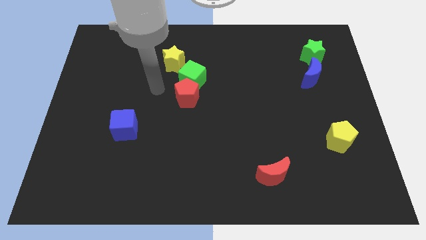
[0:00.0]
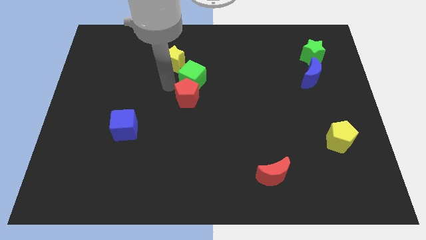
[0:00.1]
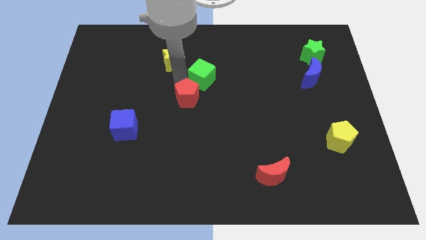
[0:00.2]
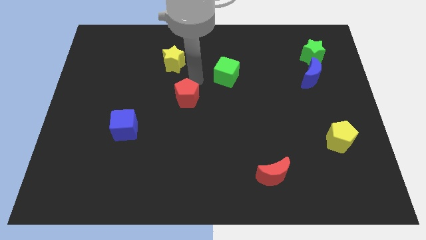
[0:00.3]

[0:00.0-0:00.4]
move the red pentagon away from the green cube

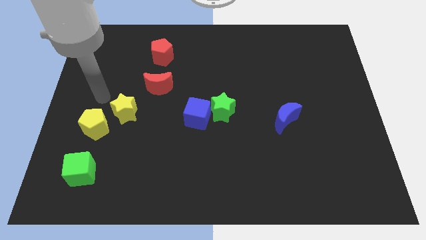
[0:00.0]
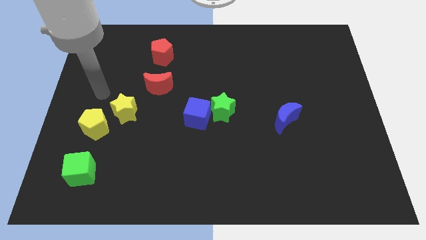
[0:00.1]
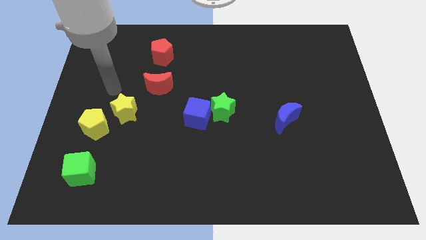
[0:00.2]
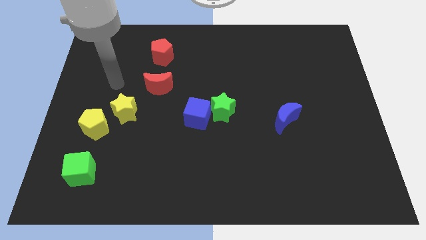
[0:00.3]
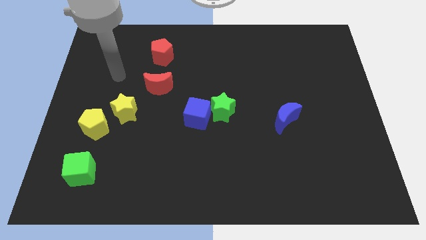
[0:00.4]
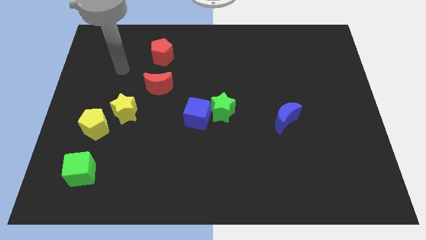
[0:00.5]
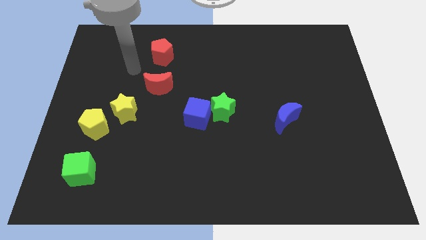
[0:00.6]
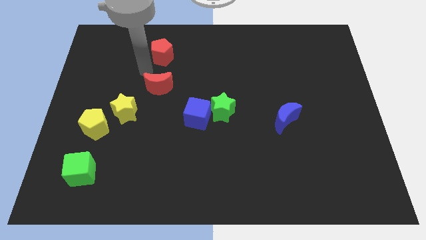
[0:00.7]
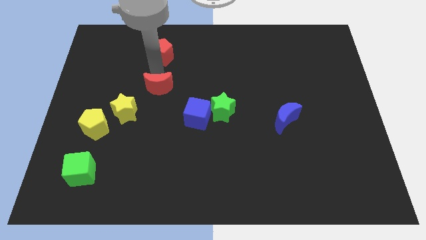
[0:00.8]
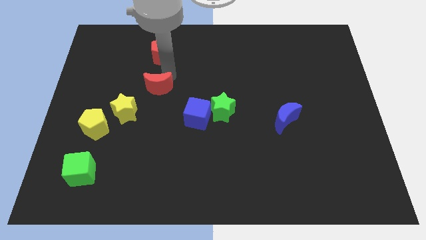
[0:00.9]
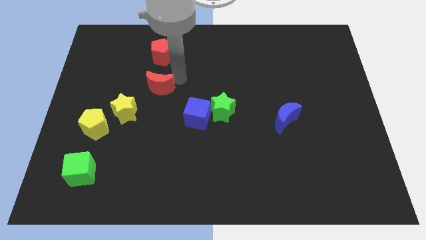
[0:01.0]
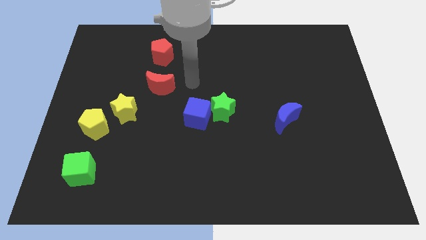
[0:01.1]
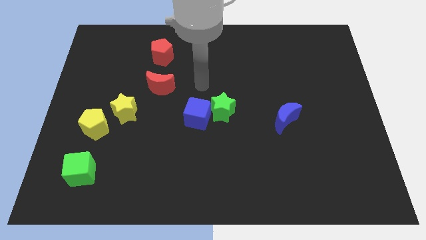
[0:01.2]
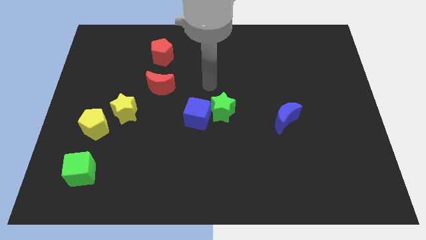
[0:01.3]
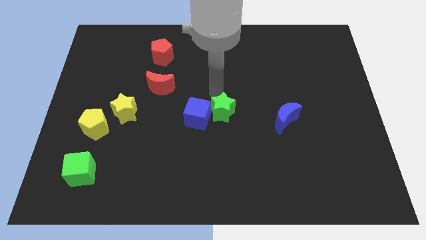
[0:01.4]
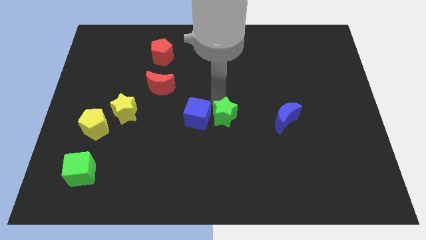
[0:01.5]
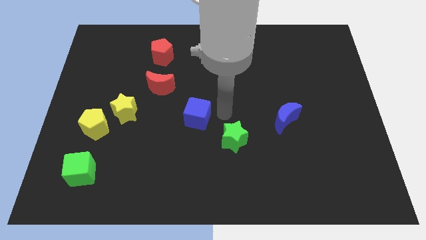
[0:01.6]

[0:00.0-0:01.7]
move the blue cube away from the green star

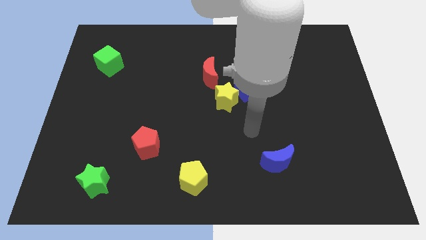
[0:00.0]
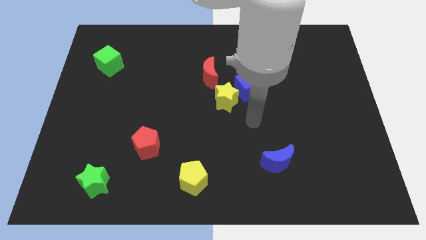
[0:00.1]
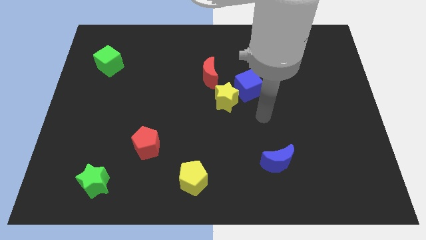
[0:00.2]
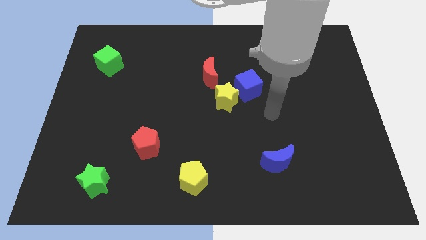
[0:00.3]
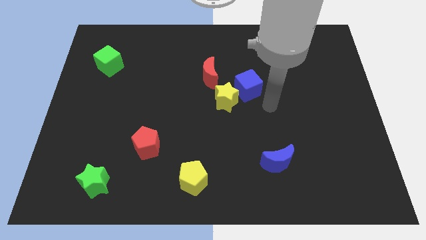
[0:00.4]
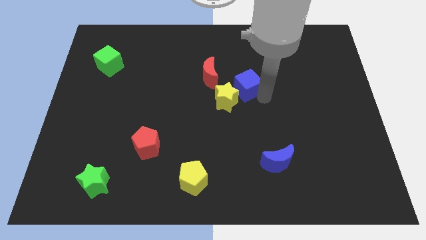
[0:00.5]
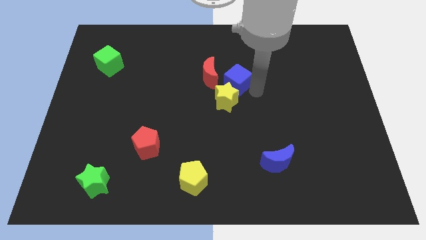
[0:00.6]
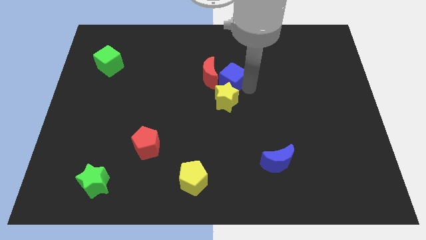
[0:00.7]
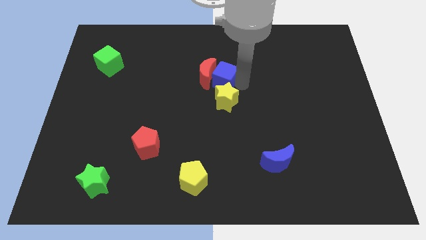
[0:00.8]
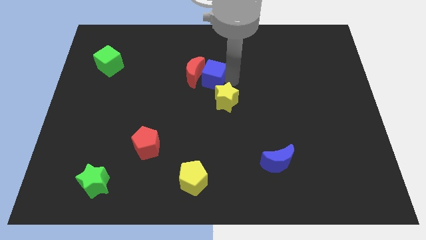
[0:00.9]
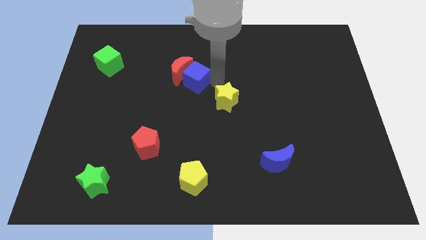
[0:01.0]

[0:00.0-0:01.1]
separate the yellow star from the blue cube and red moon

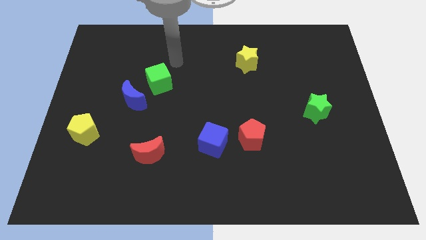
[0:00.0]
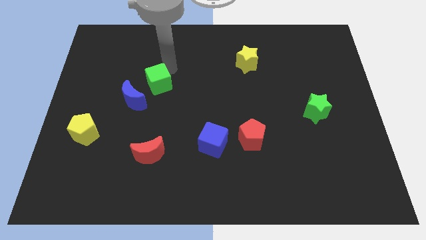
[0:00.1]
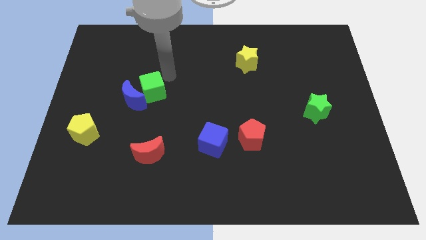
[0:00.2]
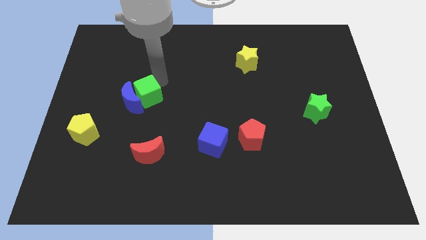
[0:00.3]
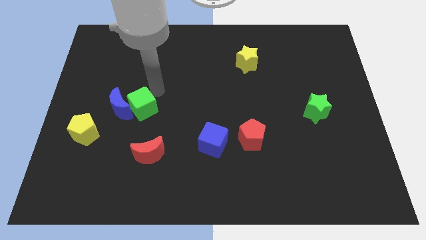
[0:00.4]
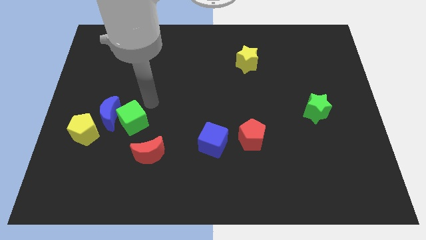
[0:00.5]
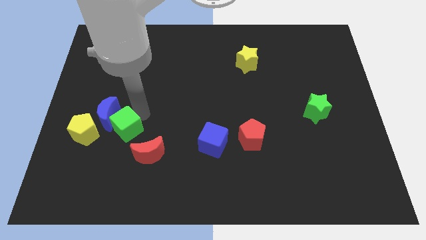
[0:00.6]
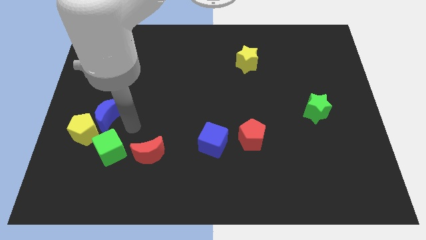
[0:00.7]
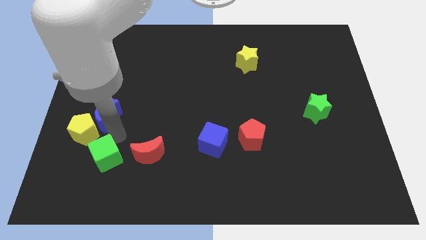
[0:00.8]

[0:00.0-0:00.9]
pull the blue moon apart from the green cube

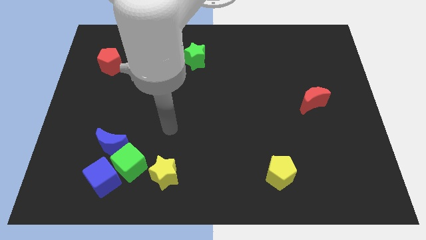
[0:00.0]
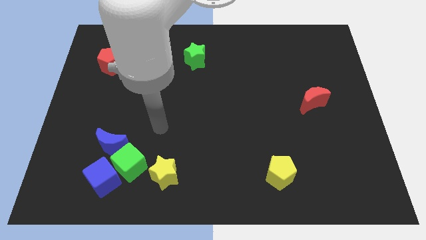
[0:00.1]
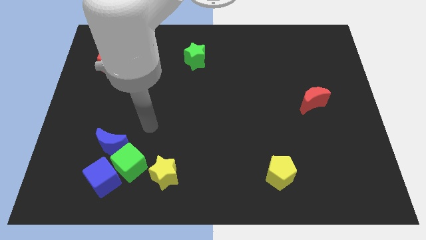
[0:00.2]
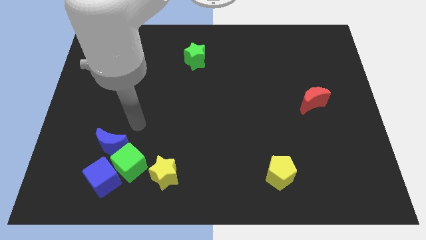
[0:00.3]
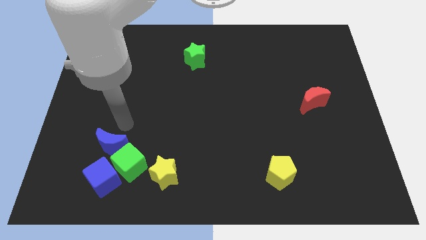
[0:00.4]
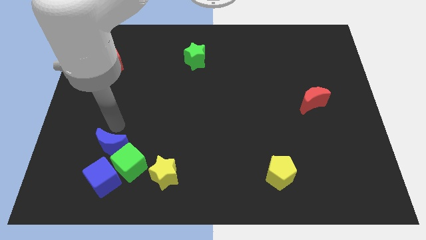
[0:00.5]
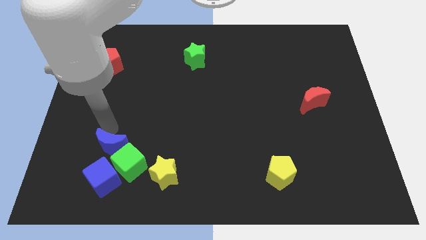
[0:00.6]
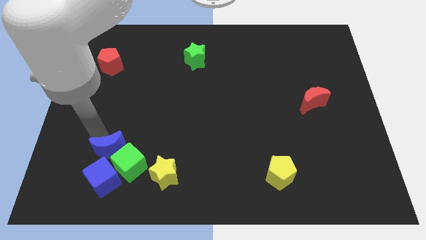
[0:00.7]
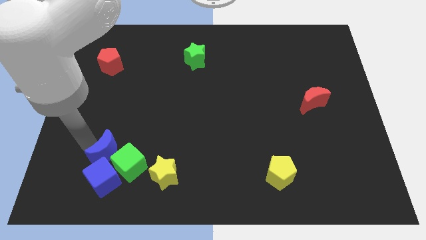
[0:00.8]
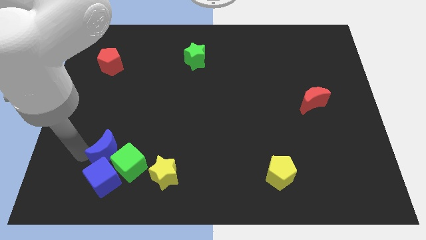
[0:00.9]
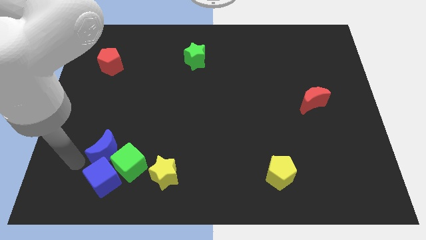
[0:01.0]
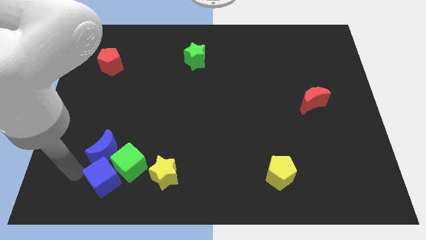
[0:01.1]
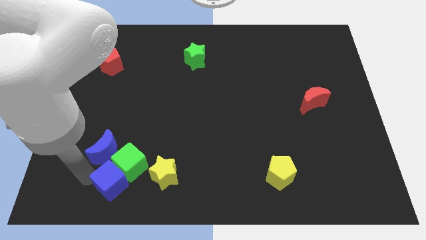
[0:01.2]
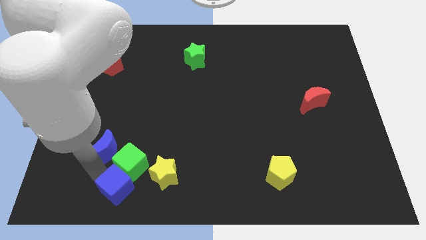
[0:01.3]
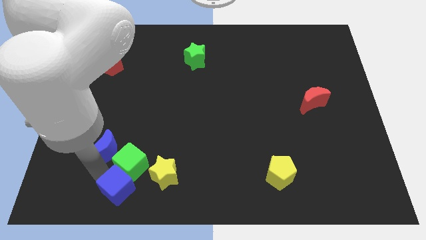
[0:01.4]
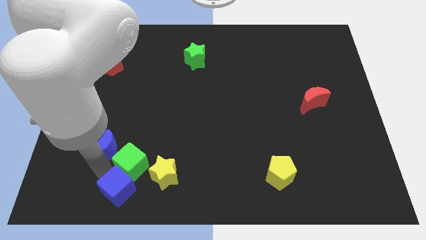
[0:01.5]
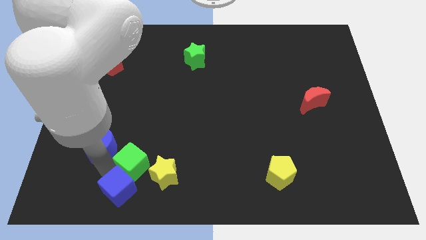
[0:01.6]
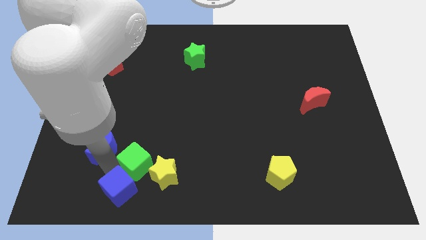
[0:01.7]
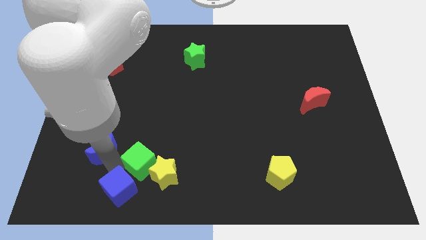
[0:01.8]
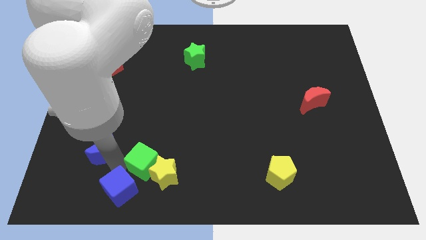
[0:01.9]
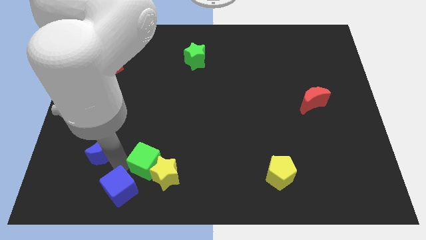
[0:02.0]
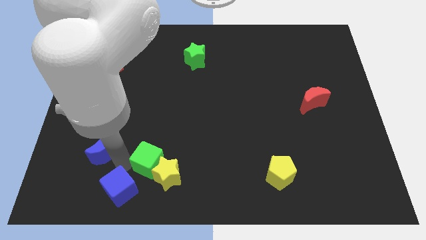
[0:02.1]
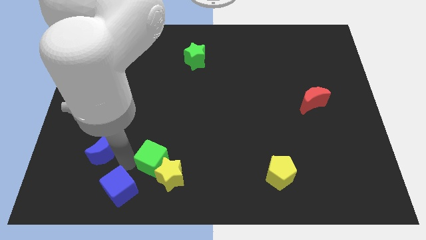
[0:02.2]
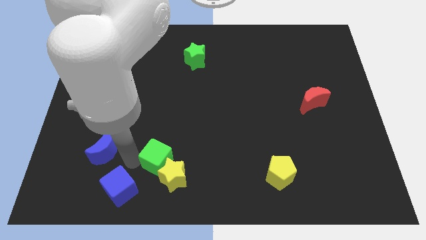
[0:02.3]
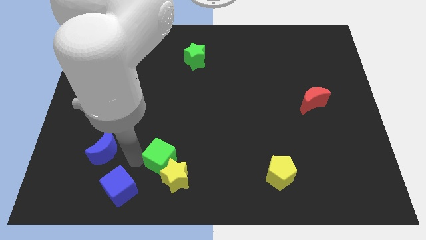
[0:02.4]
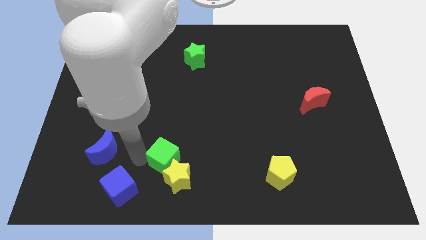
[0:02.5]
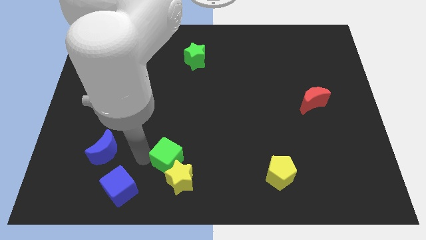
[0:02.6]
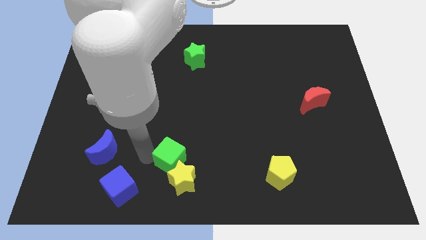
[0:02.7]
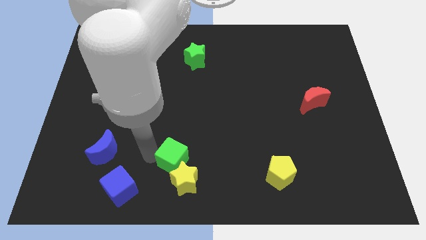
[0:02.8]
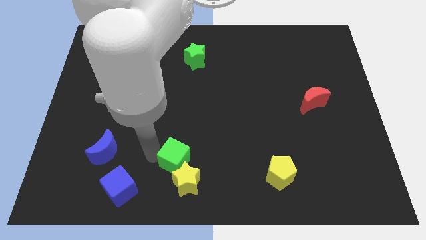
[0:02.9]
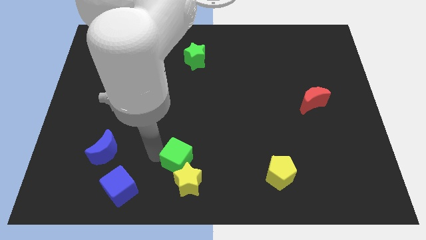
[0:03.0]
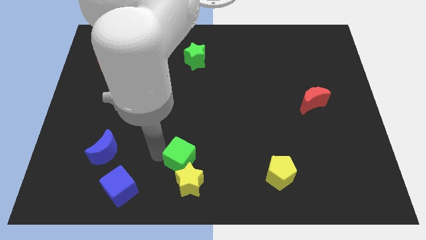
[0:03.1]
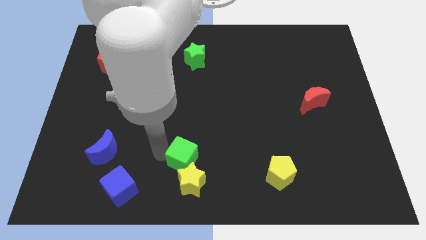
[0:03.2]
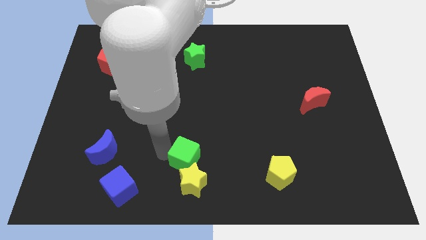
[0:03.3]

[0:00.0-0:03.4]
pull the green cube apart from the blue cube, blue moon, and yellow star

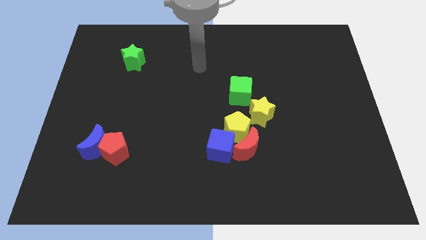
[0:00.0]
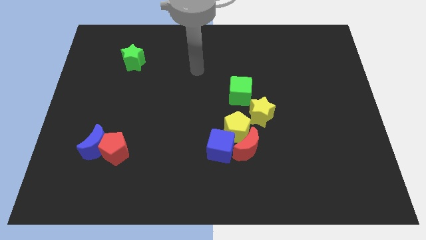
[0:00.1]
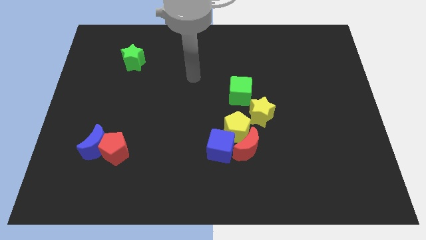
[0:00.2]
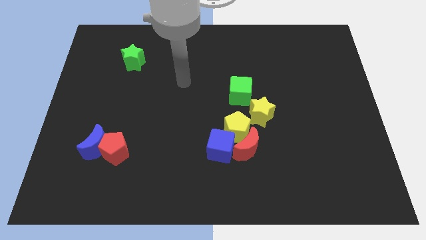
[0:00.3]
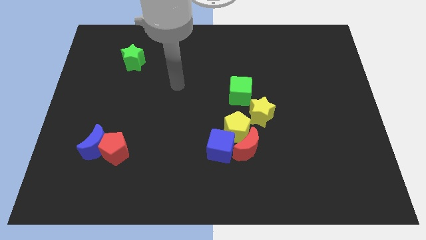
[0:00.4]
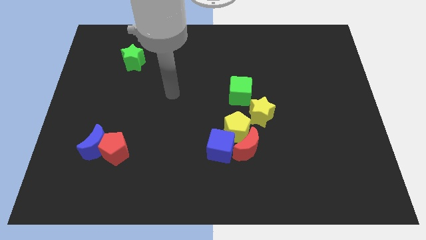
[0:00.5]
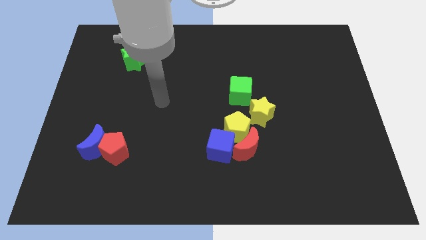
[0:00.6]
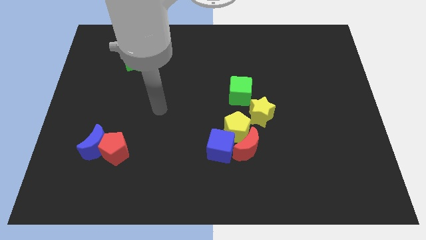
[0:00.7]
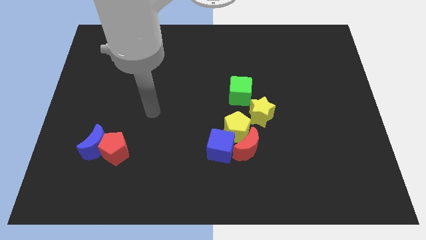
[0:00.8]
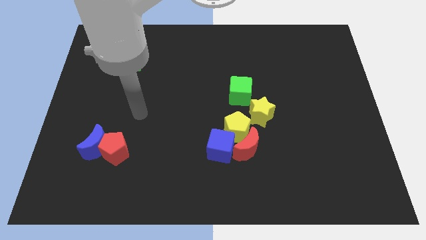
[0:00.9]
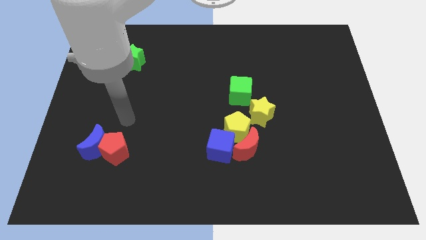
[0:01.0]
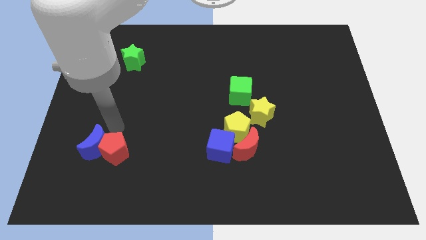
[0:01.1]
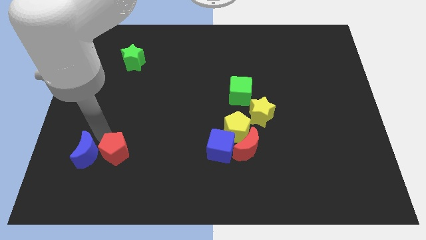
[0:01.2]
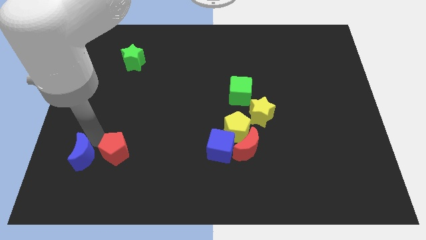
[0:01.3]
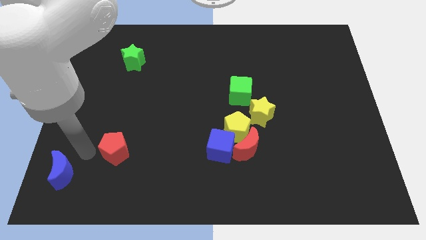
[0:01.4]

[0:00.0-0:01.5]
separate the red pentagon from the blue moon

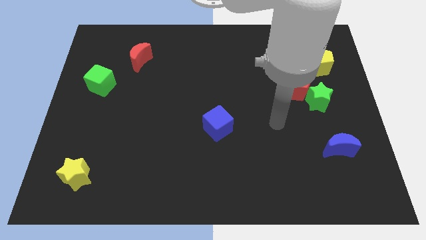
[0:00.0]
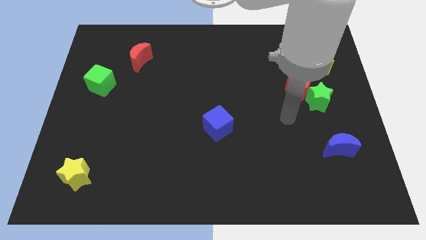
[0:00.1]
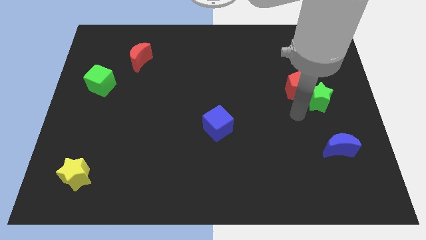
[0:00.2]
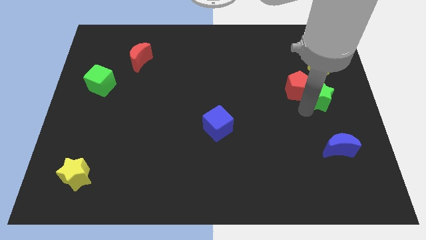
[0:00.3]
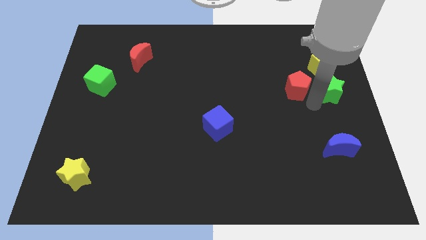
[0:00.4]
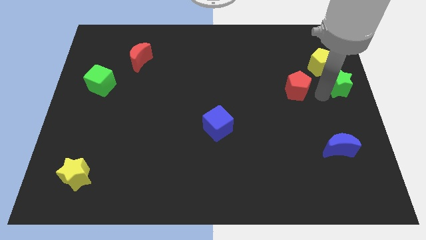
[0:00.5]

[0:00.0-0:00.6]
pull the red pentagon apart from the green star
